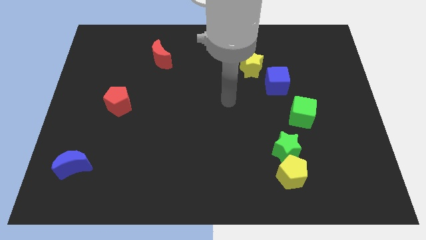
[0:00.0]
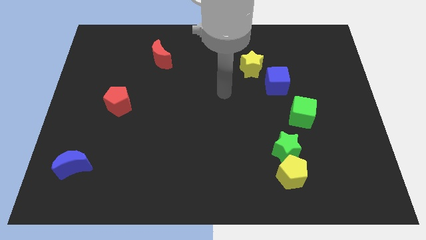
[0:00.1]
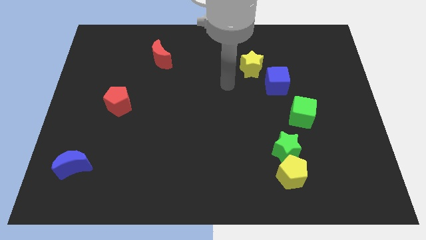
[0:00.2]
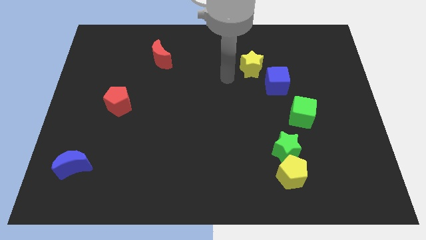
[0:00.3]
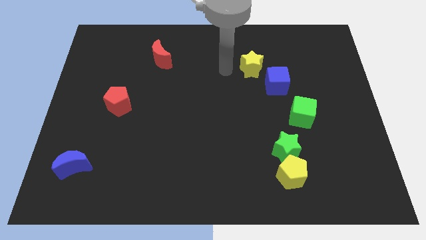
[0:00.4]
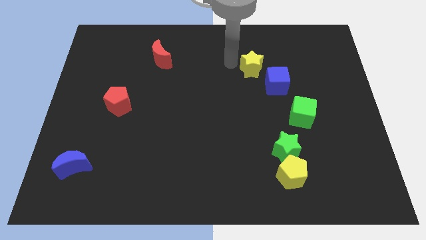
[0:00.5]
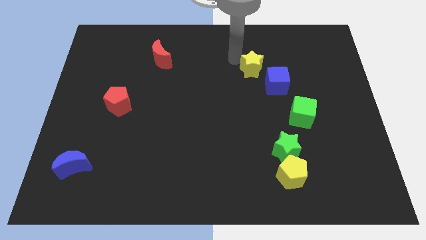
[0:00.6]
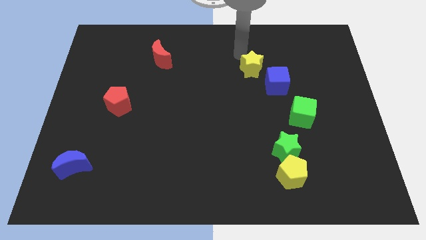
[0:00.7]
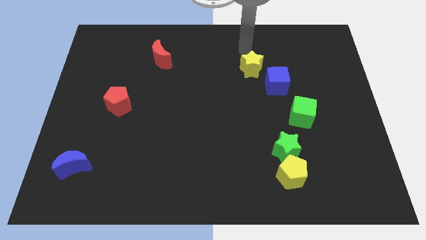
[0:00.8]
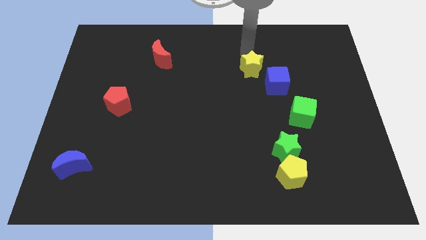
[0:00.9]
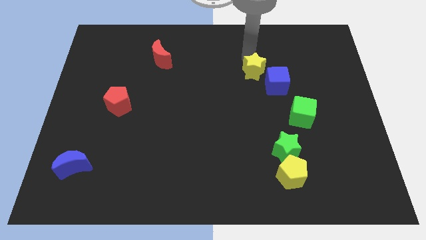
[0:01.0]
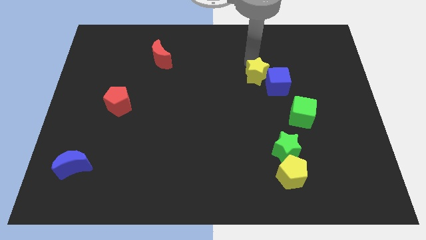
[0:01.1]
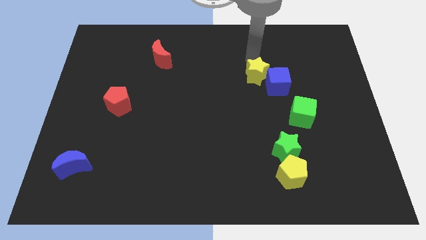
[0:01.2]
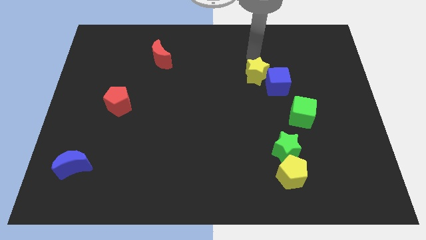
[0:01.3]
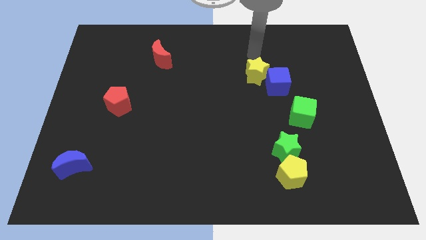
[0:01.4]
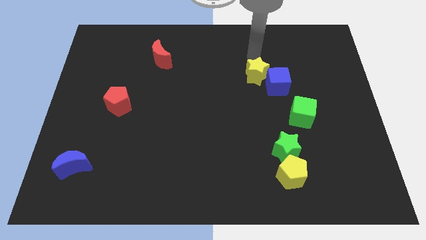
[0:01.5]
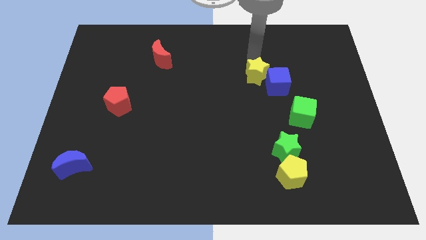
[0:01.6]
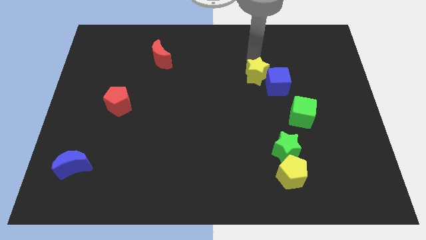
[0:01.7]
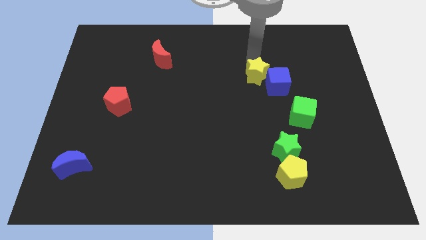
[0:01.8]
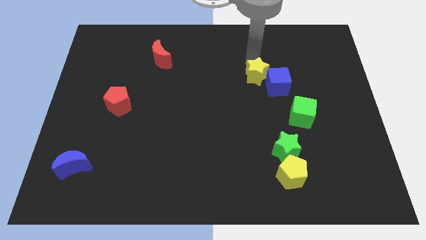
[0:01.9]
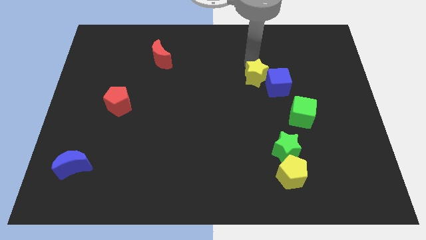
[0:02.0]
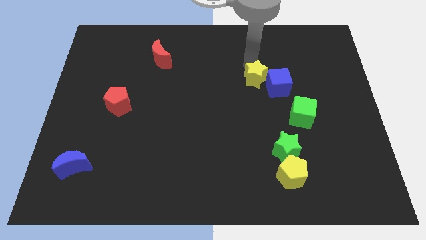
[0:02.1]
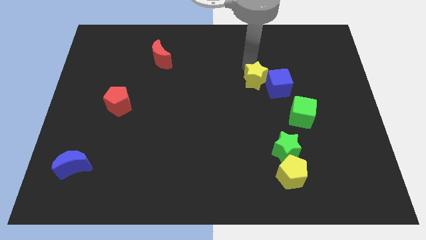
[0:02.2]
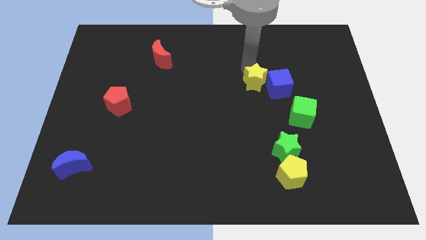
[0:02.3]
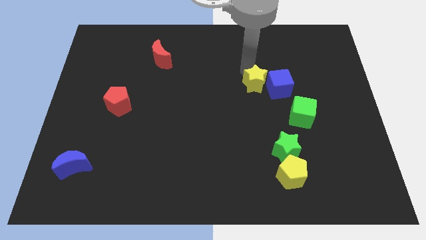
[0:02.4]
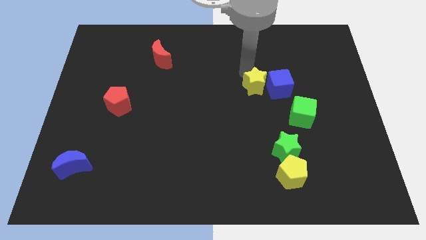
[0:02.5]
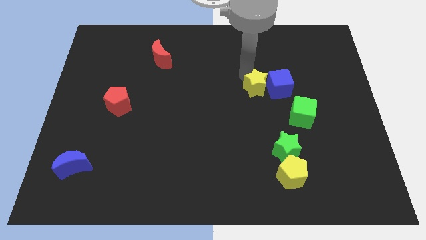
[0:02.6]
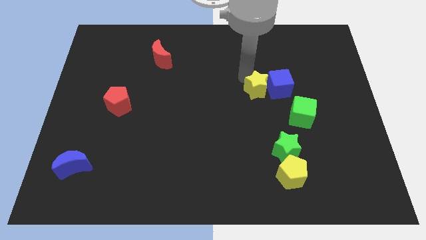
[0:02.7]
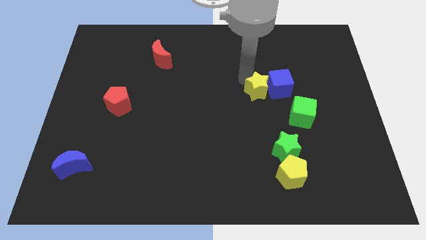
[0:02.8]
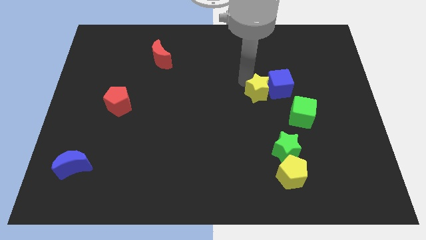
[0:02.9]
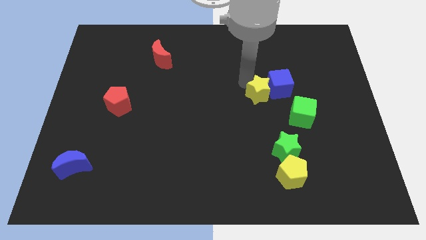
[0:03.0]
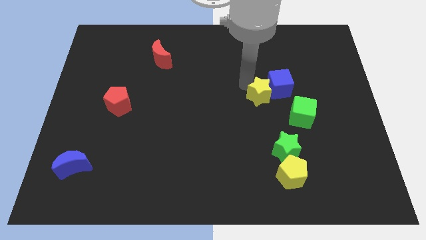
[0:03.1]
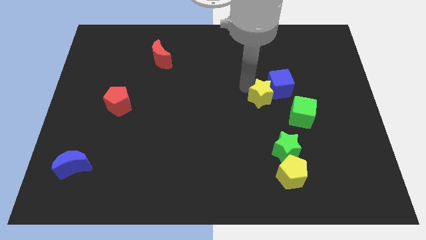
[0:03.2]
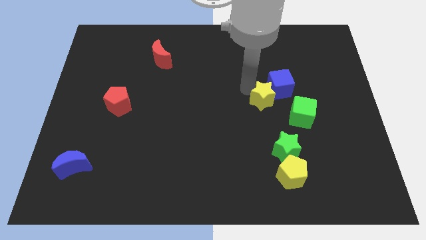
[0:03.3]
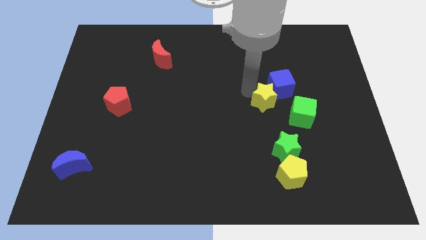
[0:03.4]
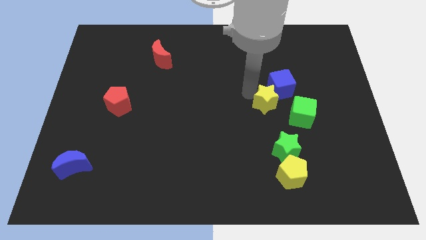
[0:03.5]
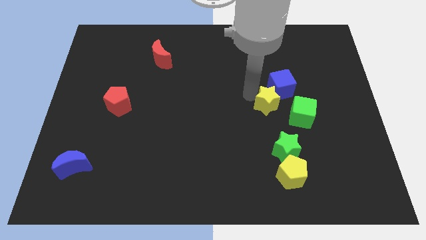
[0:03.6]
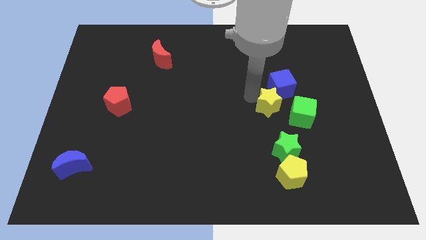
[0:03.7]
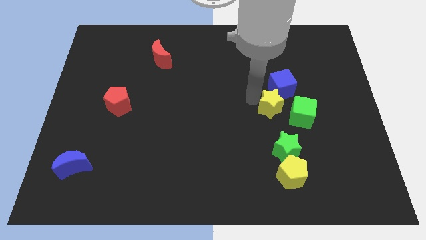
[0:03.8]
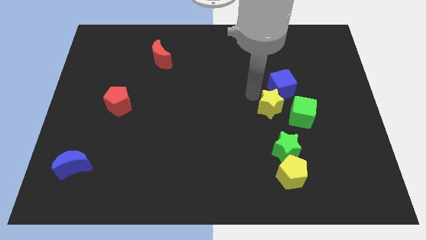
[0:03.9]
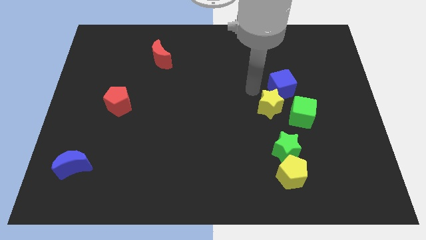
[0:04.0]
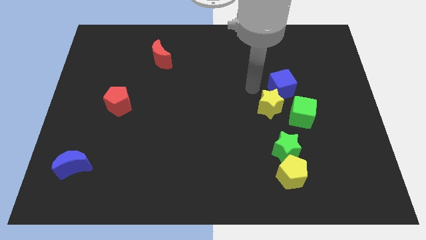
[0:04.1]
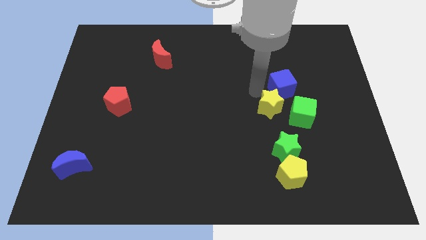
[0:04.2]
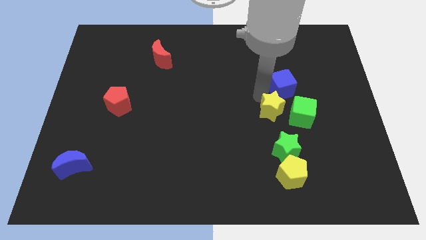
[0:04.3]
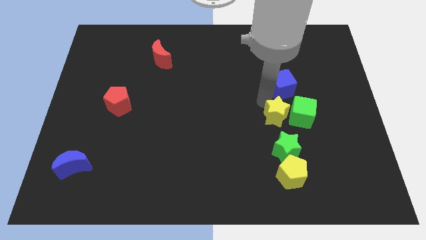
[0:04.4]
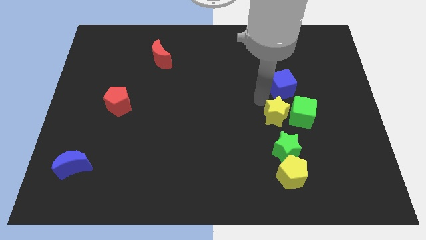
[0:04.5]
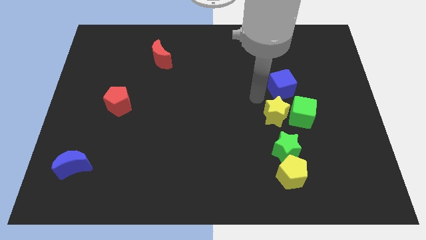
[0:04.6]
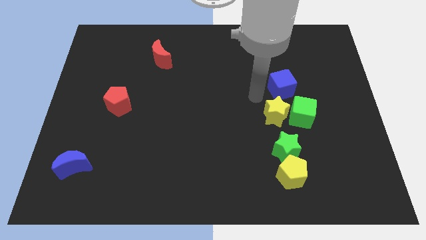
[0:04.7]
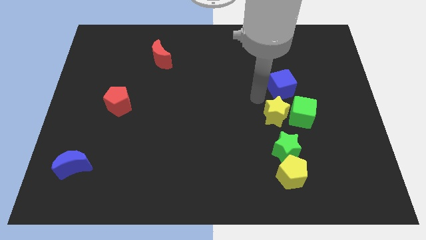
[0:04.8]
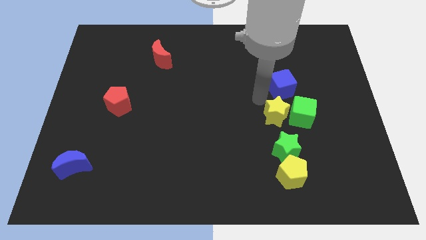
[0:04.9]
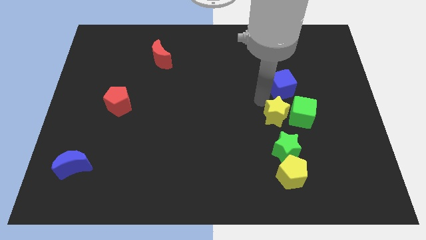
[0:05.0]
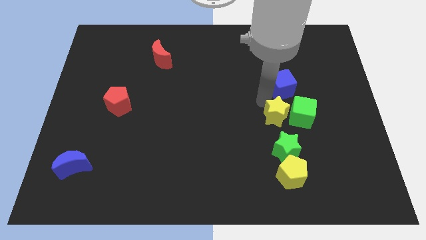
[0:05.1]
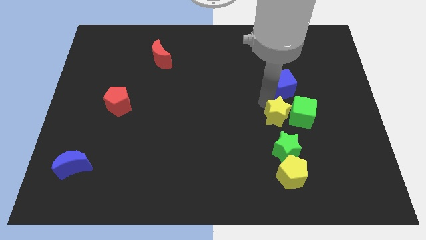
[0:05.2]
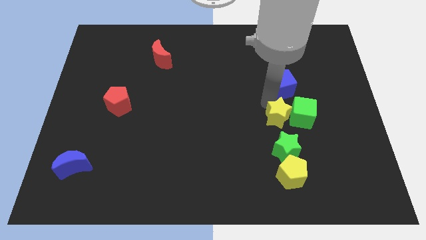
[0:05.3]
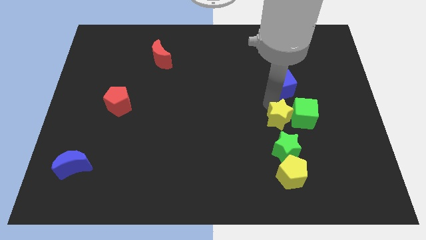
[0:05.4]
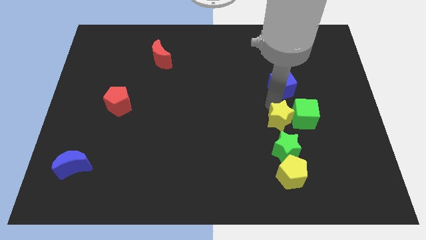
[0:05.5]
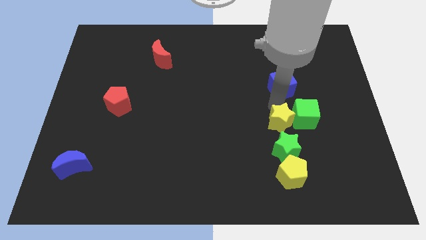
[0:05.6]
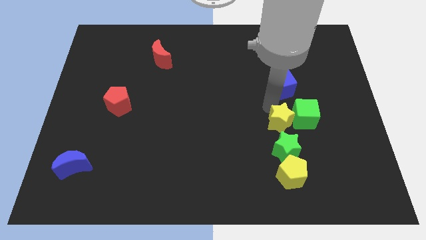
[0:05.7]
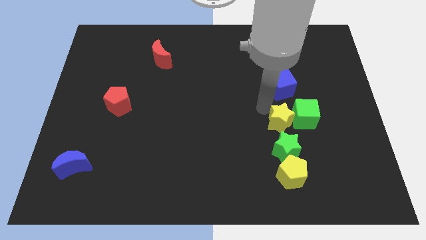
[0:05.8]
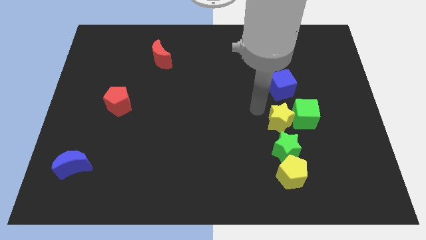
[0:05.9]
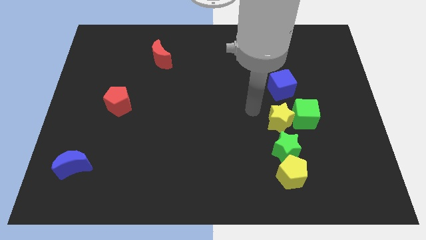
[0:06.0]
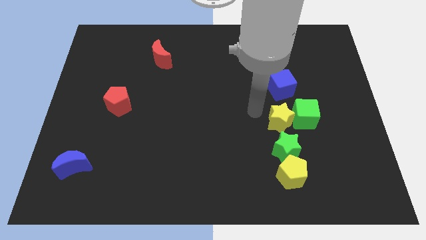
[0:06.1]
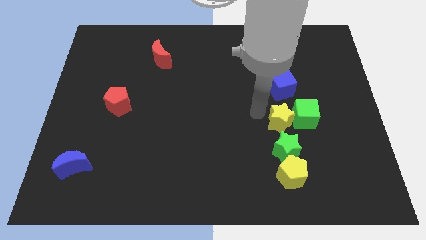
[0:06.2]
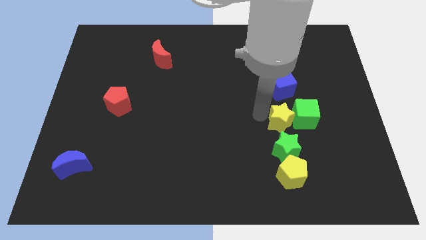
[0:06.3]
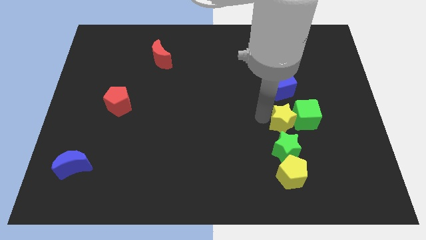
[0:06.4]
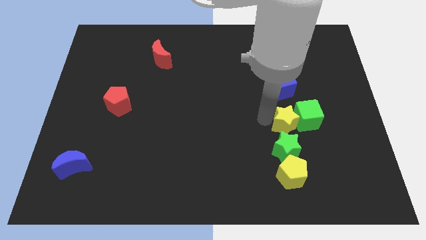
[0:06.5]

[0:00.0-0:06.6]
push the yellow star diagonally up and to the right of the green star
